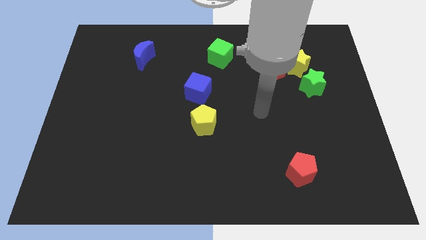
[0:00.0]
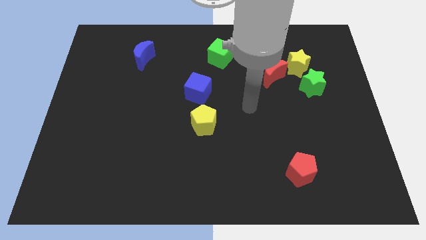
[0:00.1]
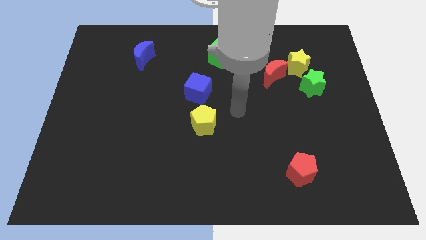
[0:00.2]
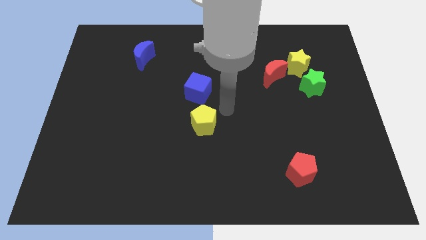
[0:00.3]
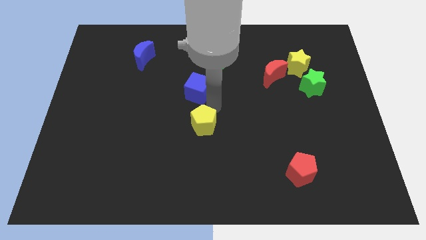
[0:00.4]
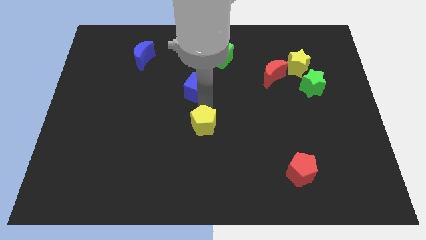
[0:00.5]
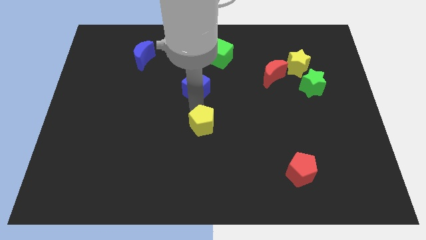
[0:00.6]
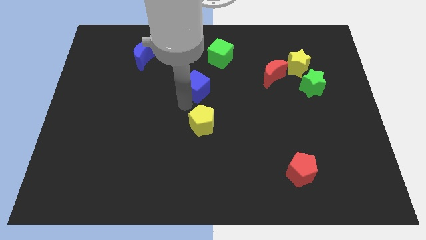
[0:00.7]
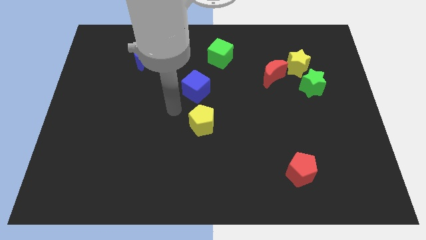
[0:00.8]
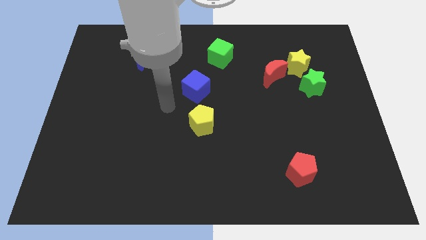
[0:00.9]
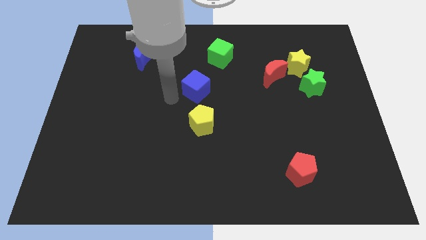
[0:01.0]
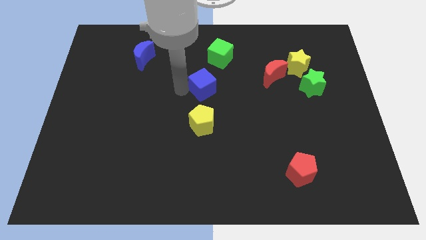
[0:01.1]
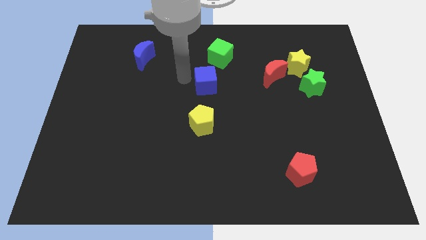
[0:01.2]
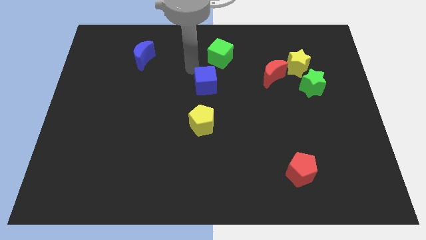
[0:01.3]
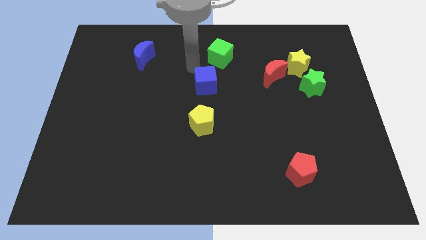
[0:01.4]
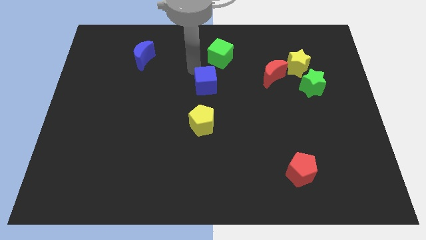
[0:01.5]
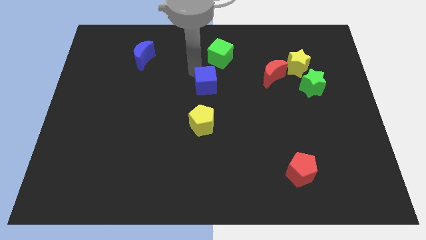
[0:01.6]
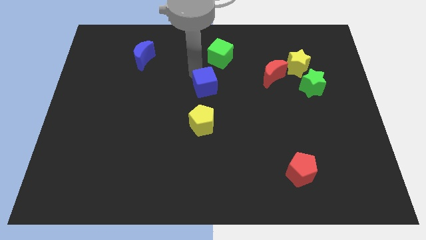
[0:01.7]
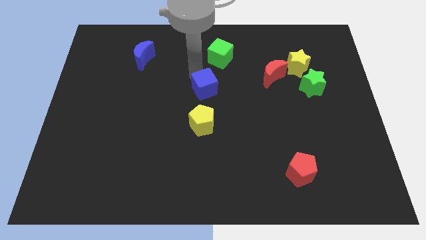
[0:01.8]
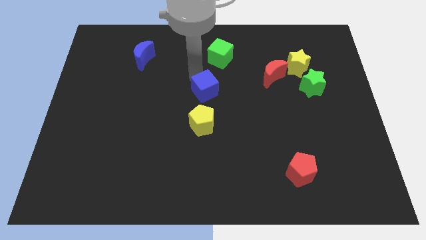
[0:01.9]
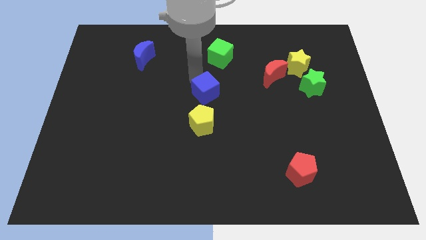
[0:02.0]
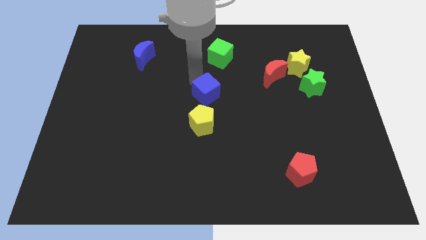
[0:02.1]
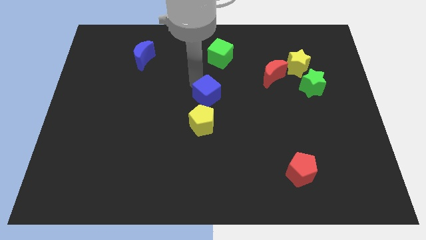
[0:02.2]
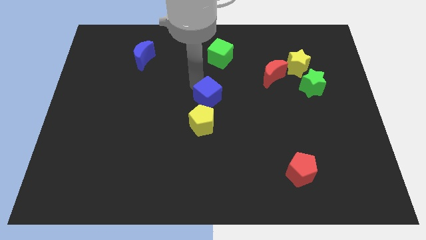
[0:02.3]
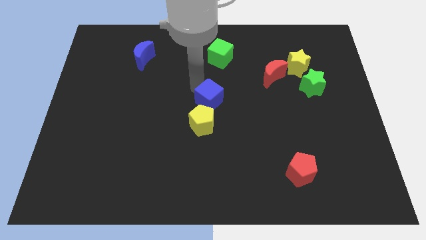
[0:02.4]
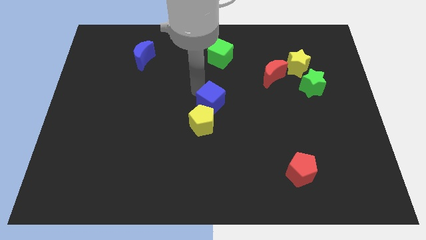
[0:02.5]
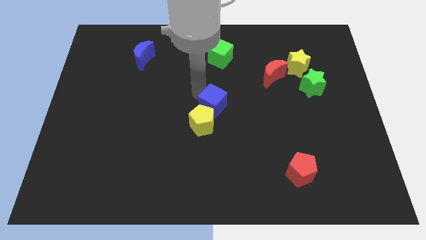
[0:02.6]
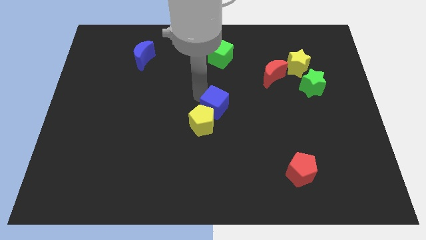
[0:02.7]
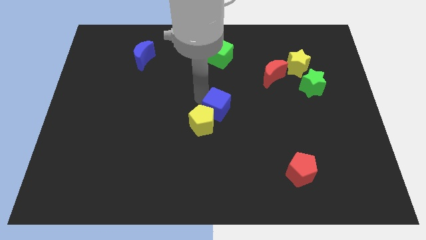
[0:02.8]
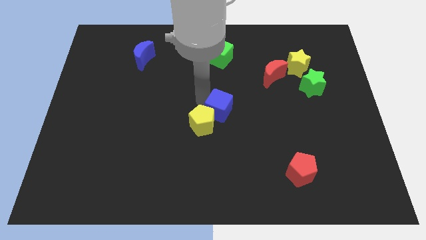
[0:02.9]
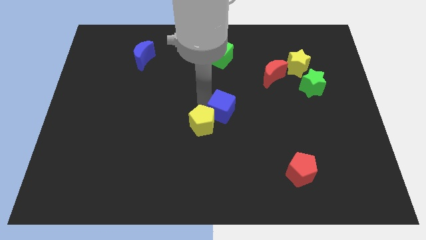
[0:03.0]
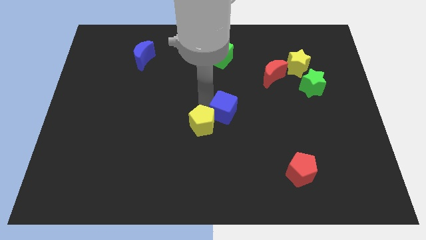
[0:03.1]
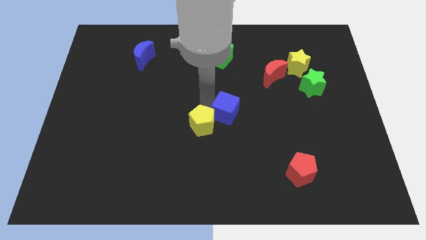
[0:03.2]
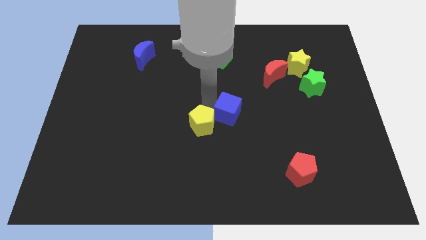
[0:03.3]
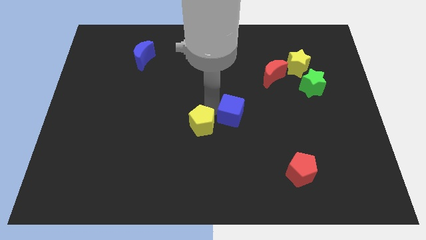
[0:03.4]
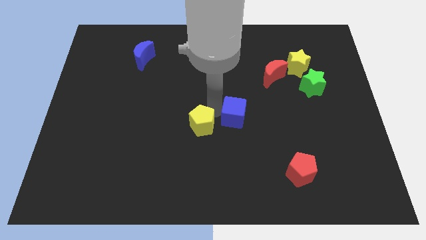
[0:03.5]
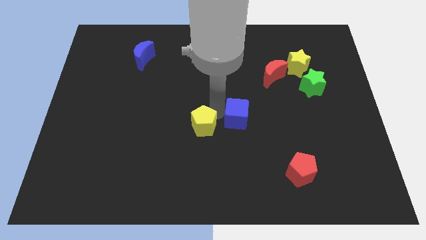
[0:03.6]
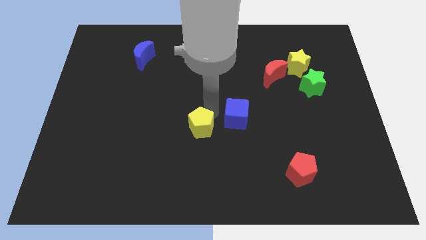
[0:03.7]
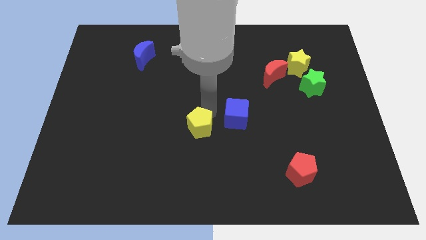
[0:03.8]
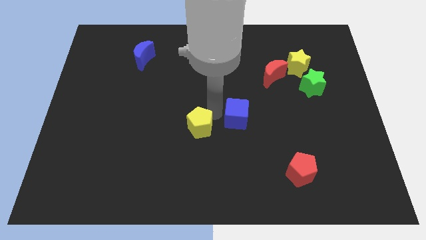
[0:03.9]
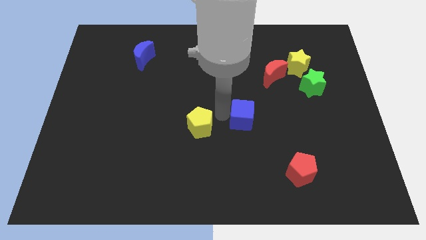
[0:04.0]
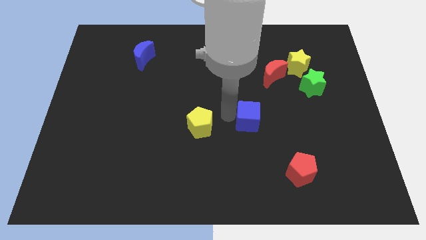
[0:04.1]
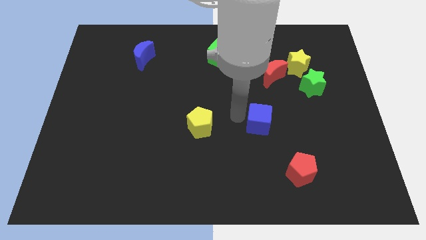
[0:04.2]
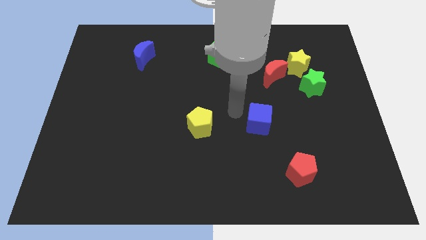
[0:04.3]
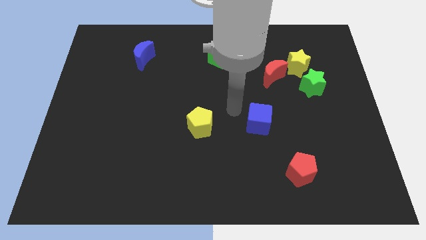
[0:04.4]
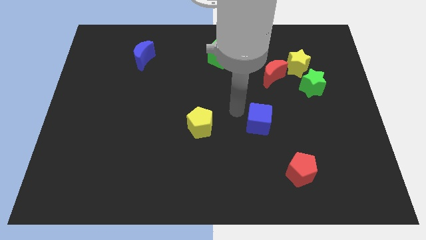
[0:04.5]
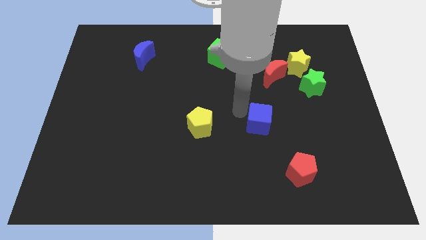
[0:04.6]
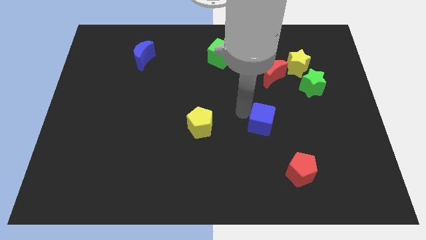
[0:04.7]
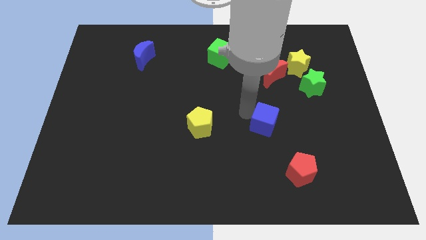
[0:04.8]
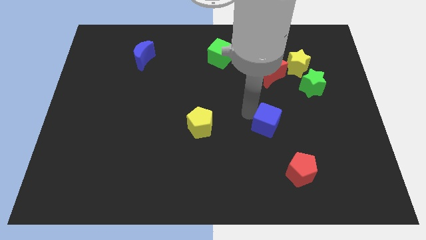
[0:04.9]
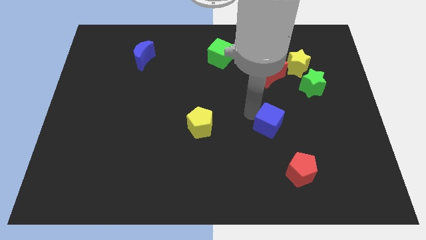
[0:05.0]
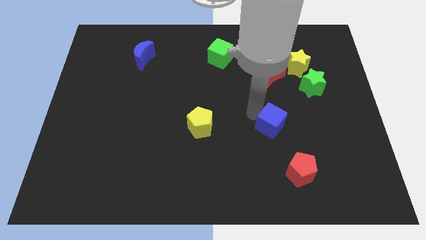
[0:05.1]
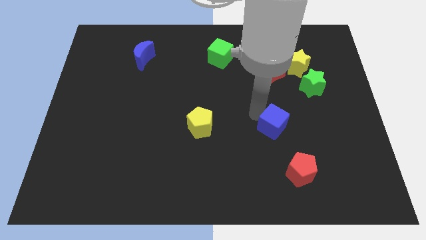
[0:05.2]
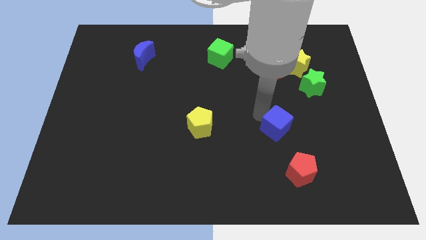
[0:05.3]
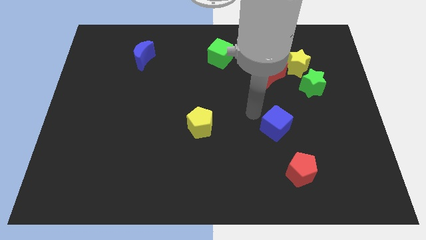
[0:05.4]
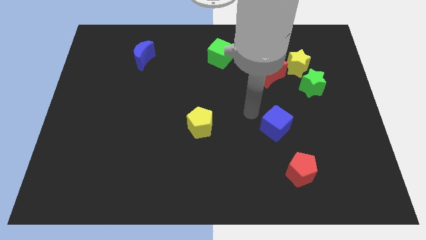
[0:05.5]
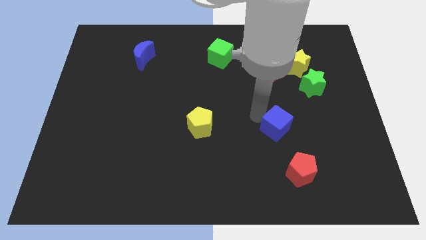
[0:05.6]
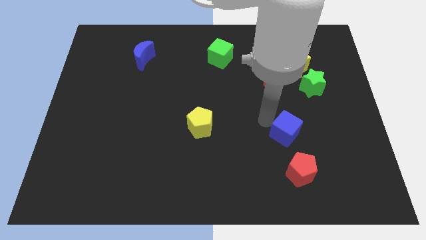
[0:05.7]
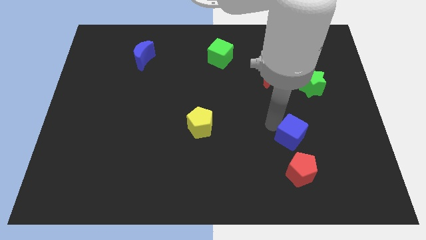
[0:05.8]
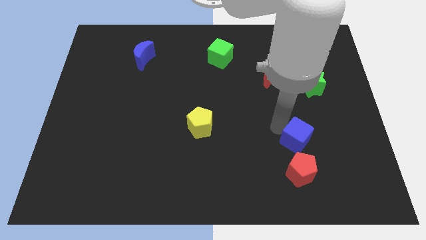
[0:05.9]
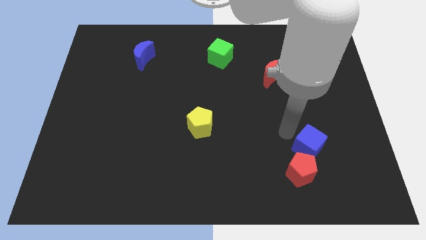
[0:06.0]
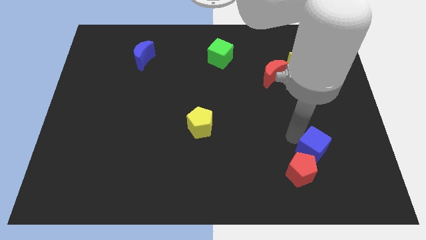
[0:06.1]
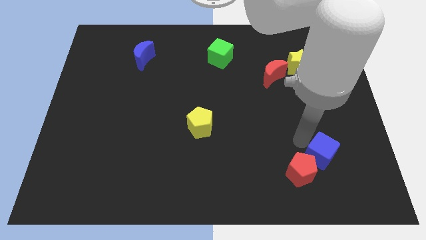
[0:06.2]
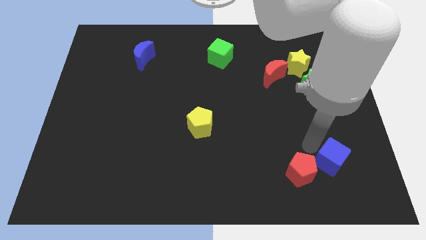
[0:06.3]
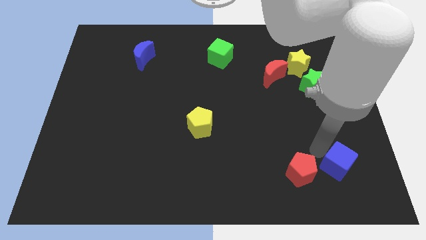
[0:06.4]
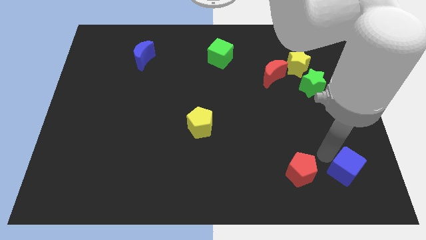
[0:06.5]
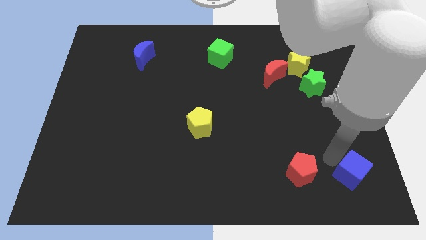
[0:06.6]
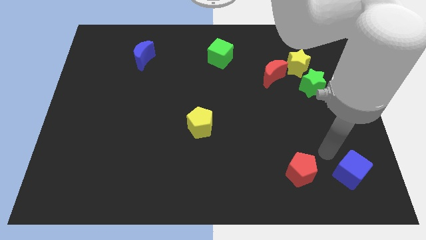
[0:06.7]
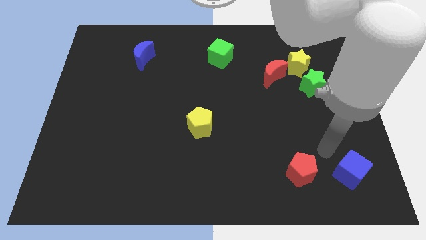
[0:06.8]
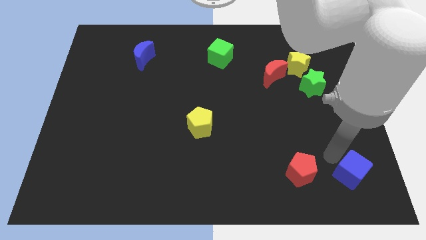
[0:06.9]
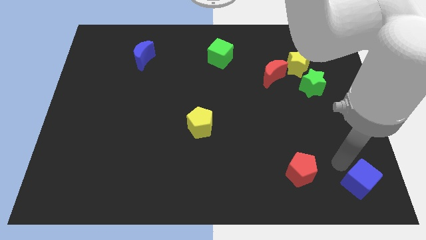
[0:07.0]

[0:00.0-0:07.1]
push the blue cube to the lower right corner
